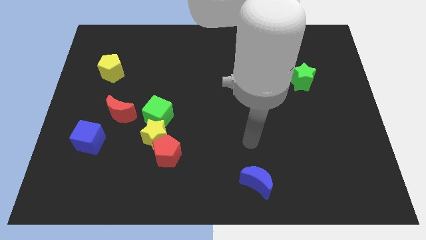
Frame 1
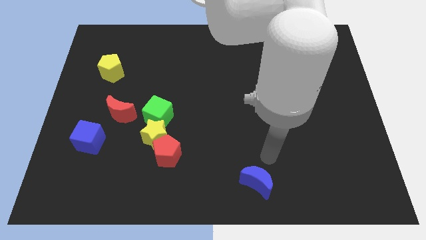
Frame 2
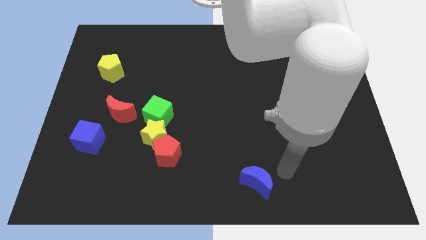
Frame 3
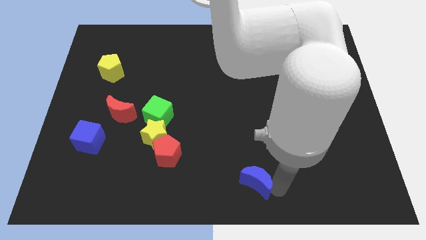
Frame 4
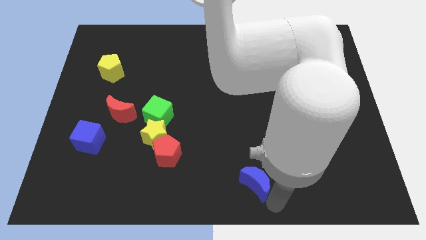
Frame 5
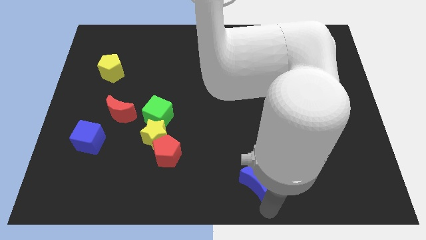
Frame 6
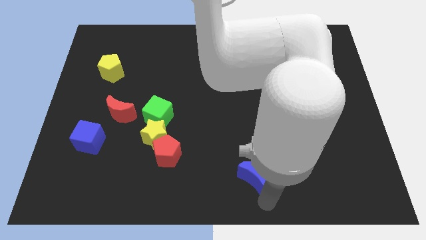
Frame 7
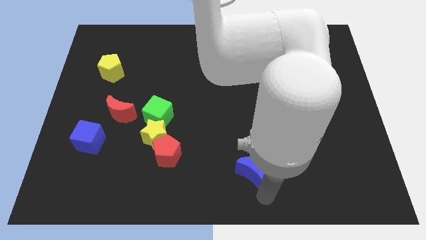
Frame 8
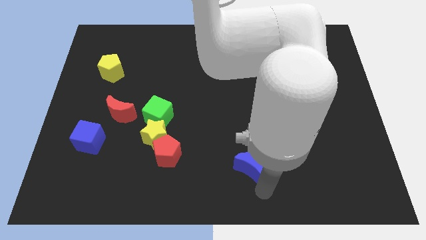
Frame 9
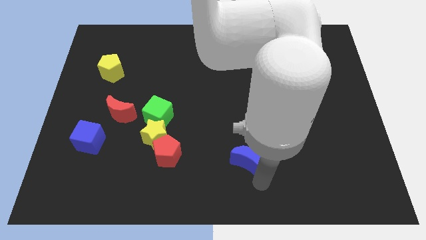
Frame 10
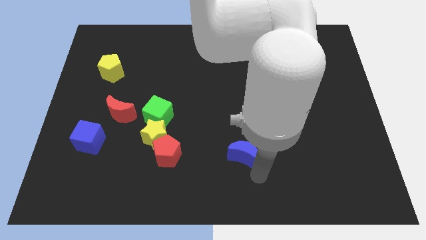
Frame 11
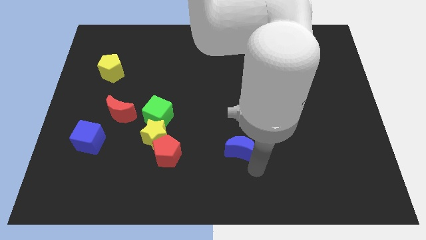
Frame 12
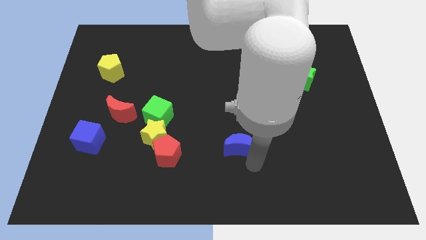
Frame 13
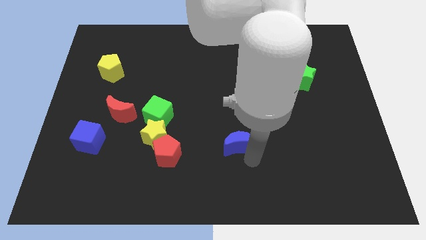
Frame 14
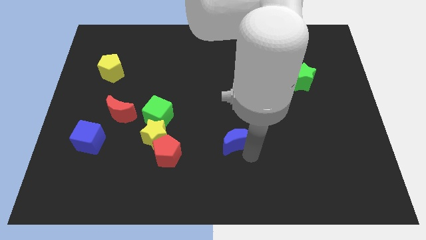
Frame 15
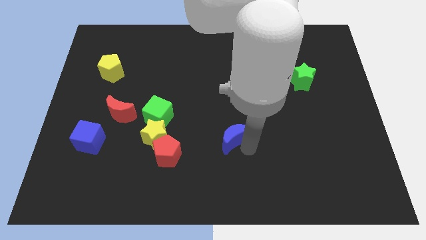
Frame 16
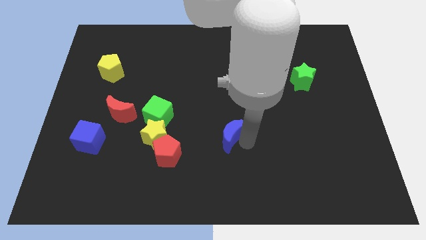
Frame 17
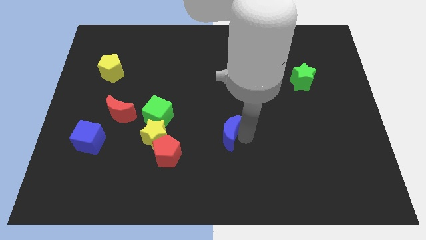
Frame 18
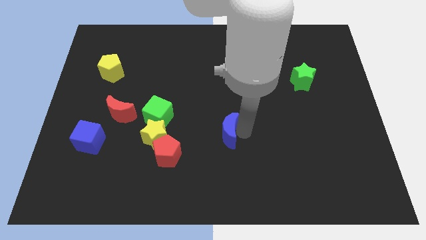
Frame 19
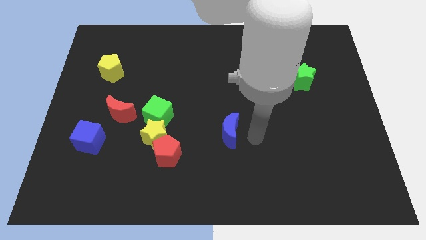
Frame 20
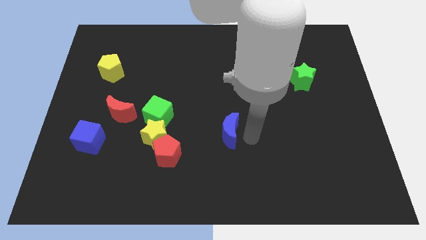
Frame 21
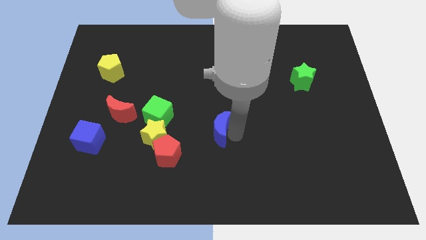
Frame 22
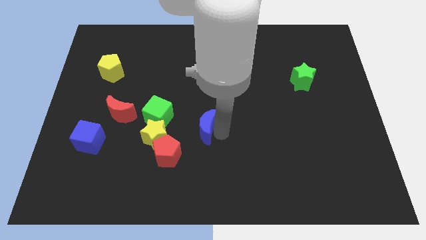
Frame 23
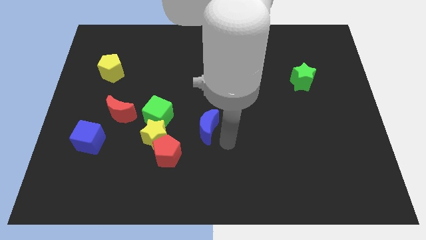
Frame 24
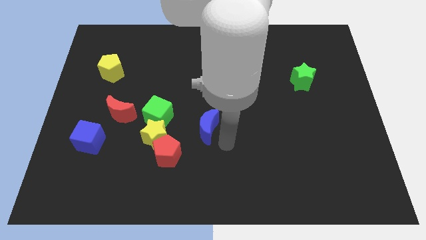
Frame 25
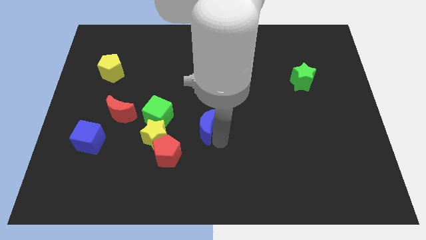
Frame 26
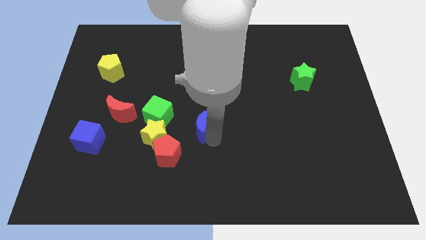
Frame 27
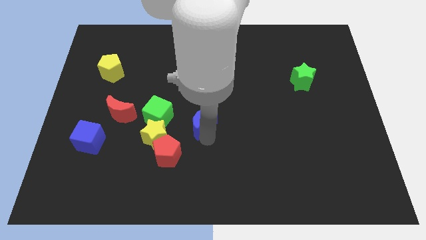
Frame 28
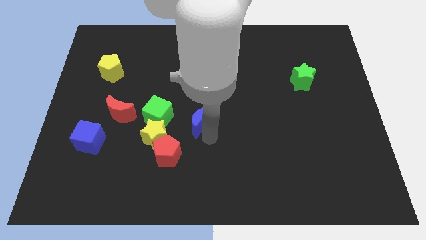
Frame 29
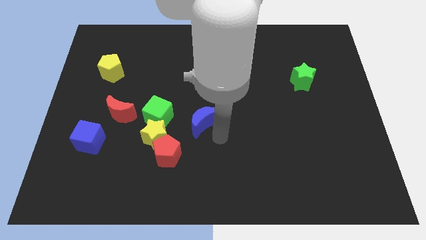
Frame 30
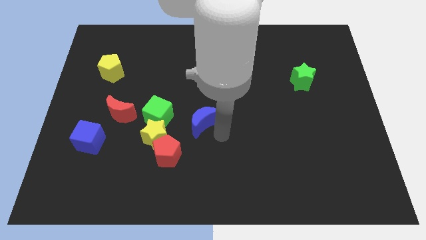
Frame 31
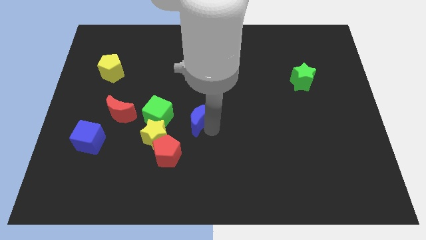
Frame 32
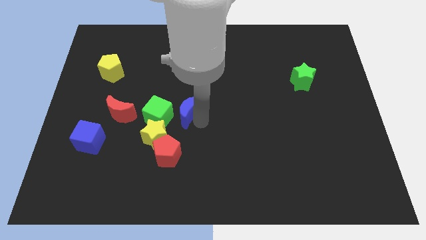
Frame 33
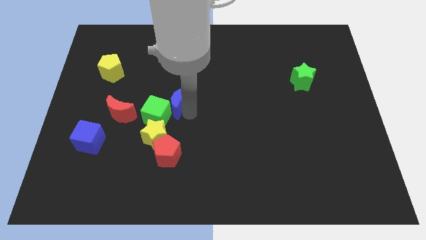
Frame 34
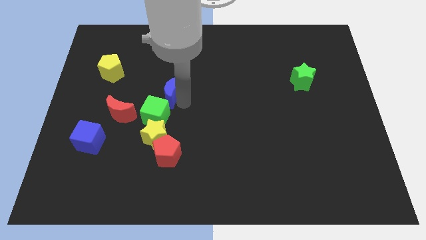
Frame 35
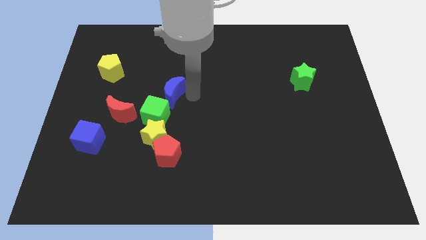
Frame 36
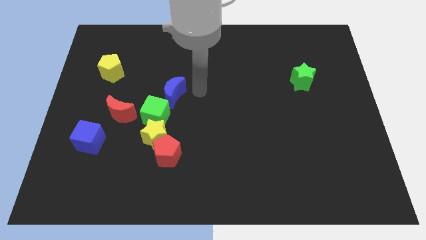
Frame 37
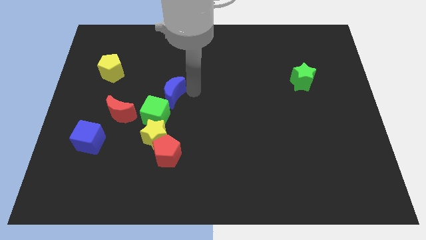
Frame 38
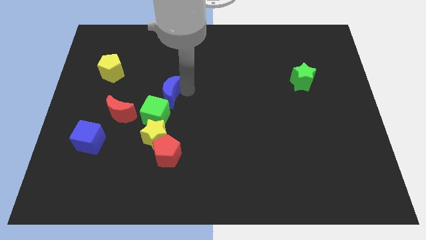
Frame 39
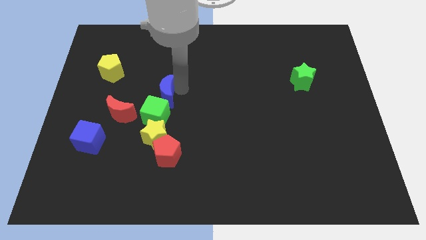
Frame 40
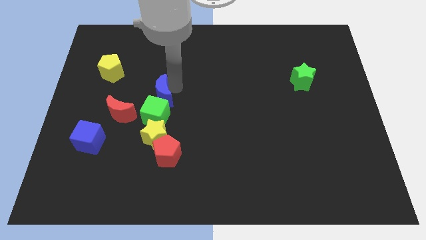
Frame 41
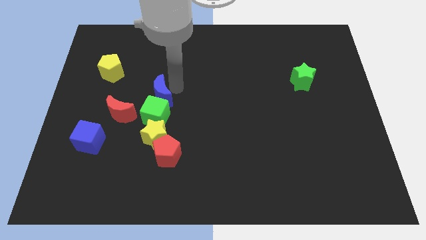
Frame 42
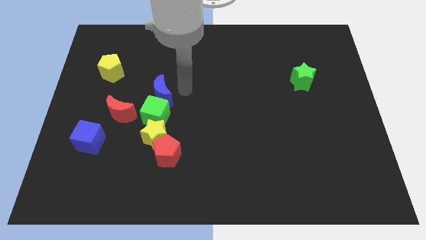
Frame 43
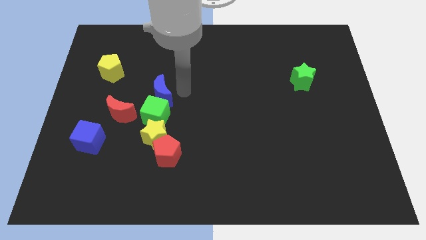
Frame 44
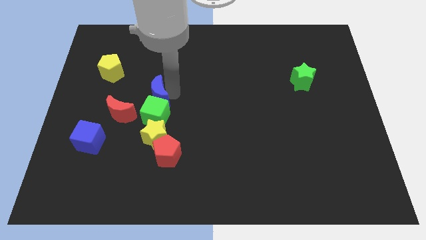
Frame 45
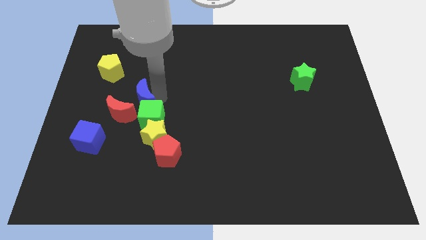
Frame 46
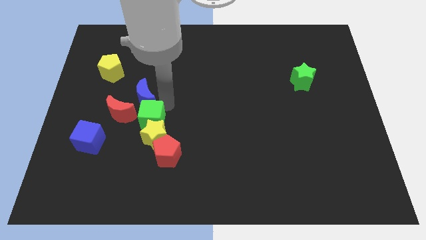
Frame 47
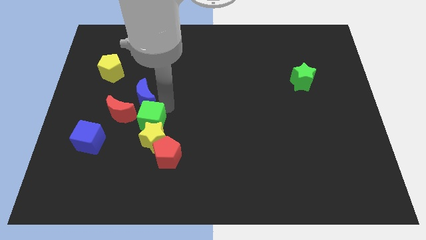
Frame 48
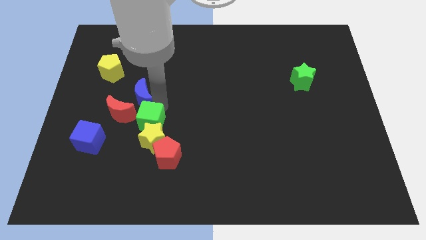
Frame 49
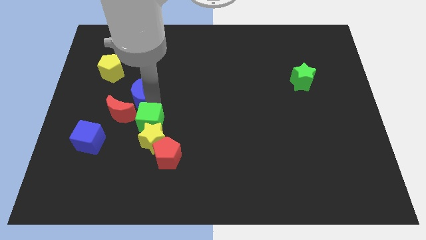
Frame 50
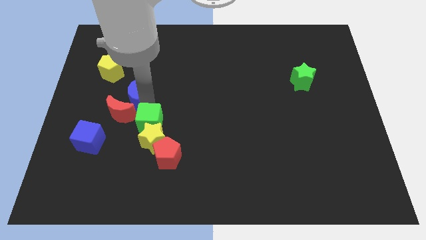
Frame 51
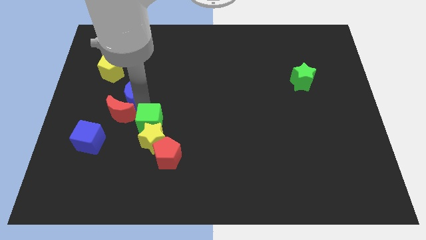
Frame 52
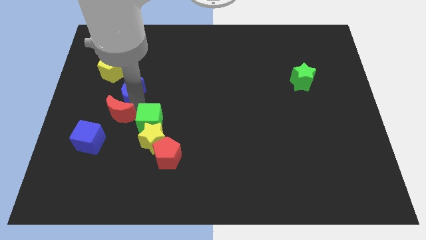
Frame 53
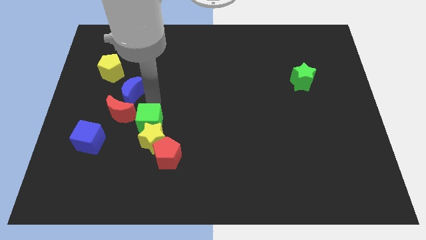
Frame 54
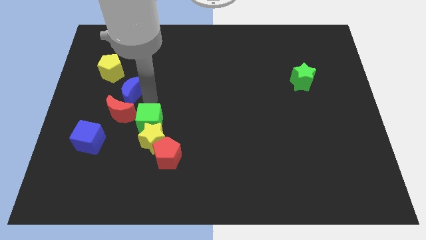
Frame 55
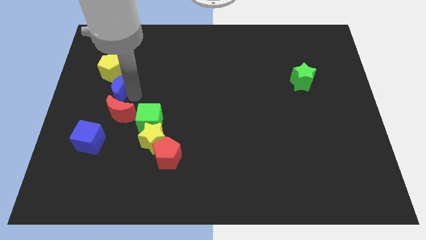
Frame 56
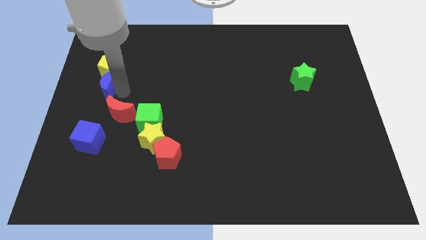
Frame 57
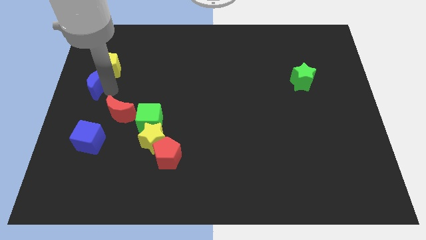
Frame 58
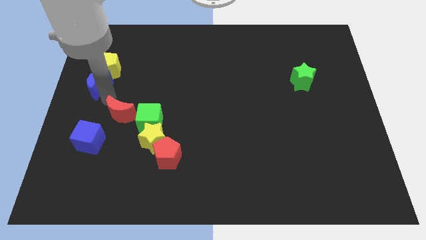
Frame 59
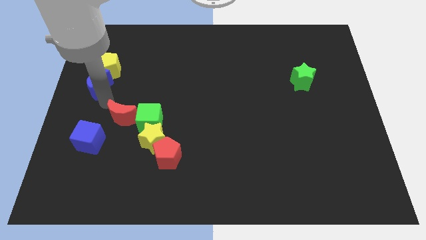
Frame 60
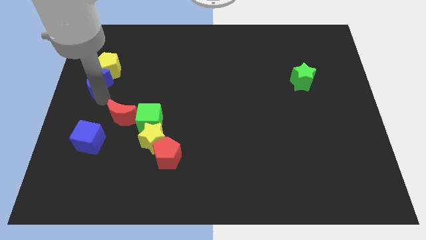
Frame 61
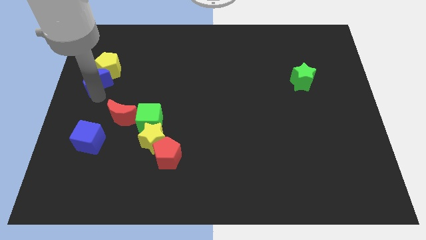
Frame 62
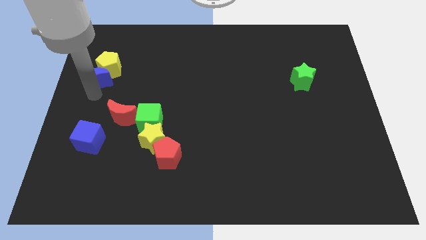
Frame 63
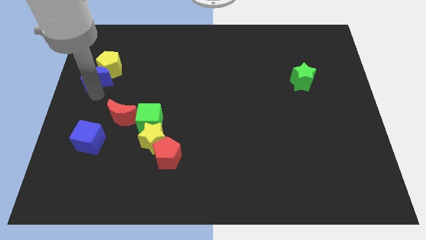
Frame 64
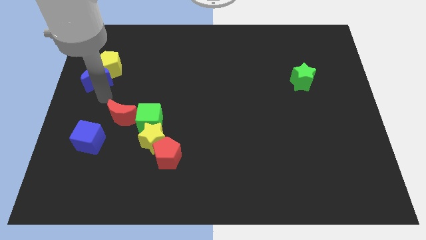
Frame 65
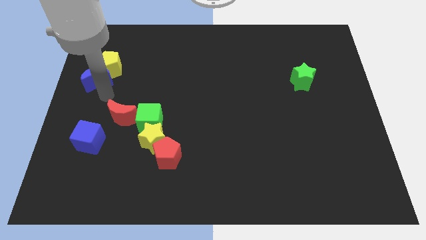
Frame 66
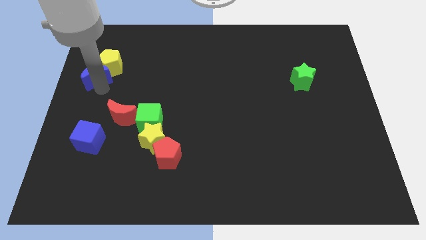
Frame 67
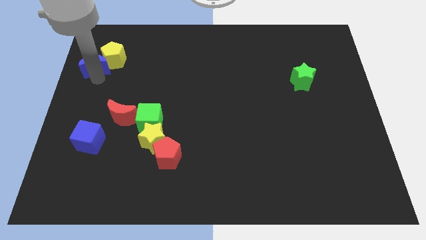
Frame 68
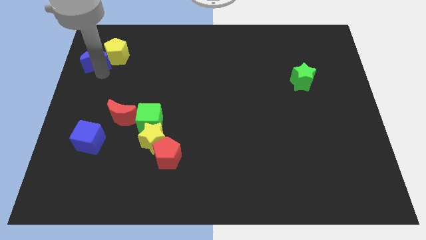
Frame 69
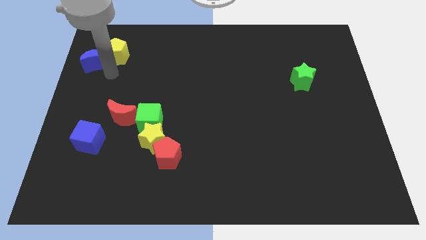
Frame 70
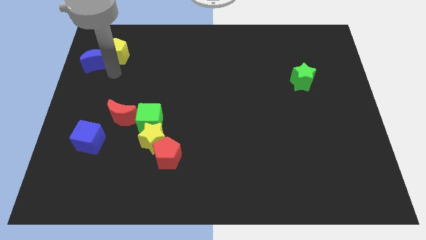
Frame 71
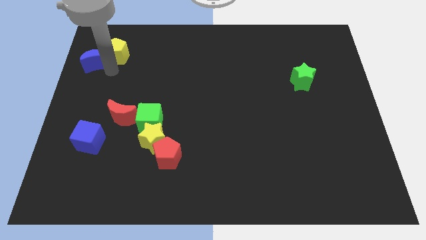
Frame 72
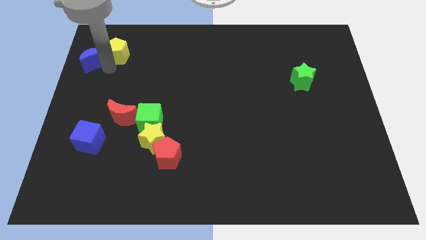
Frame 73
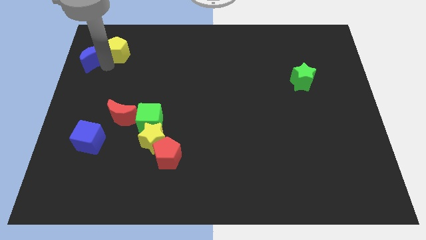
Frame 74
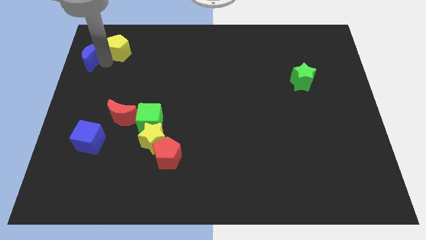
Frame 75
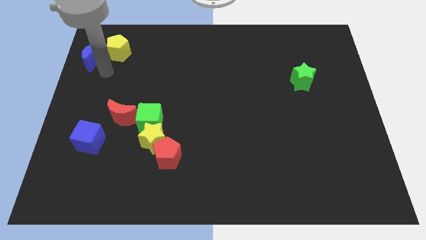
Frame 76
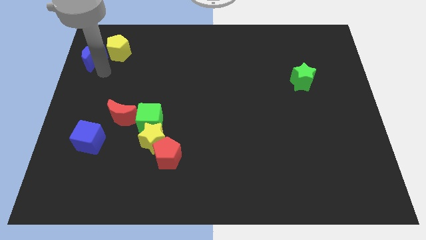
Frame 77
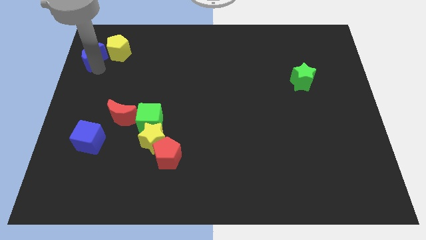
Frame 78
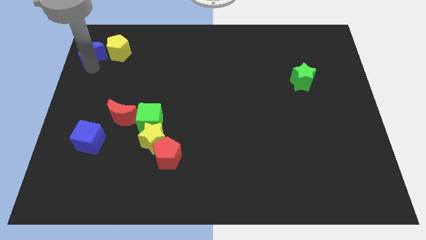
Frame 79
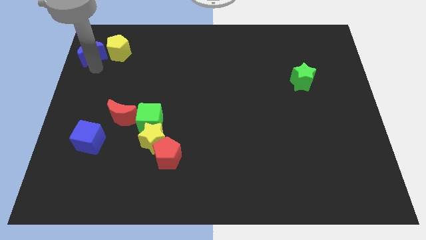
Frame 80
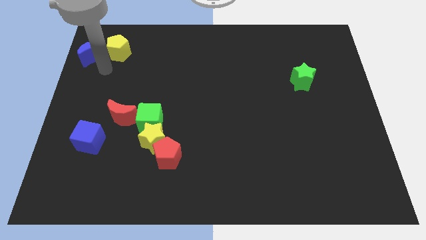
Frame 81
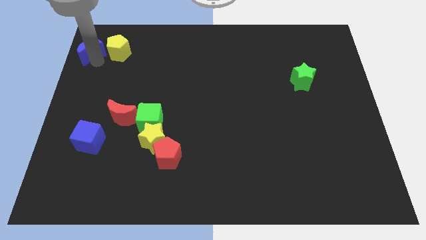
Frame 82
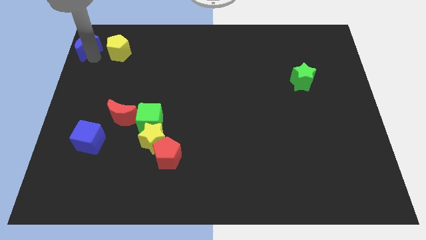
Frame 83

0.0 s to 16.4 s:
push the blue moon to the top left
